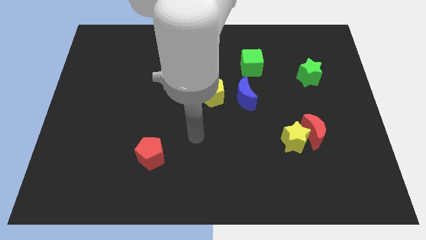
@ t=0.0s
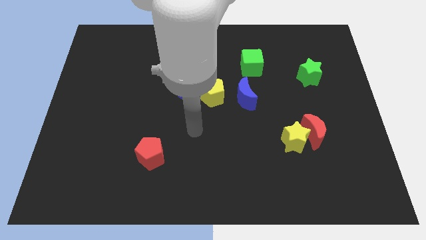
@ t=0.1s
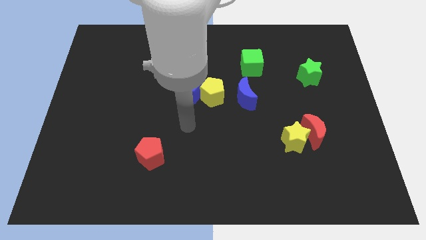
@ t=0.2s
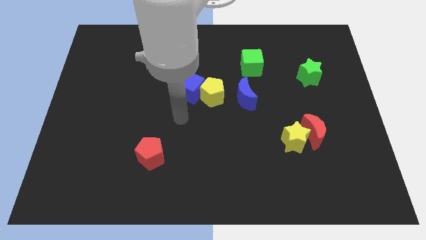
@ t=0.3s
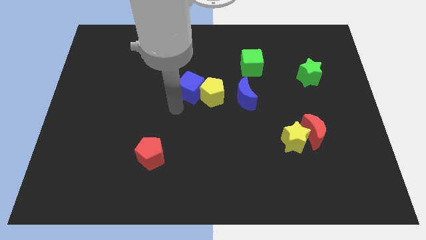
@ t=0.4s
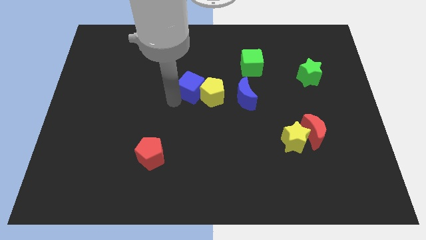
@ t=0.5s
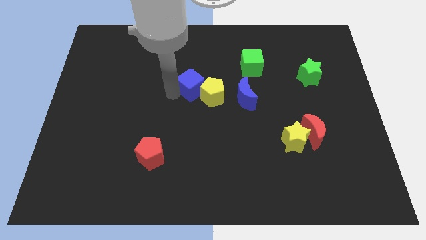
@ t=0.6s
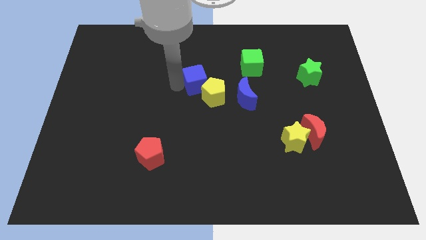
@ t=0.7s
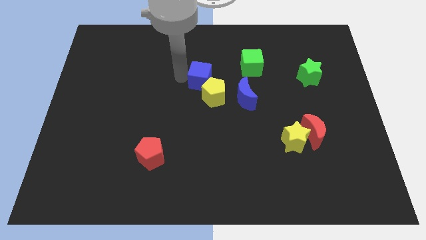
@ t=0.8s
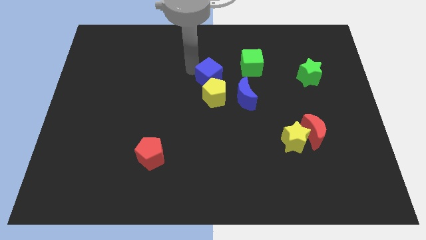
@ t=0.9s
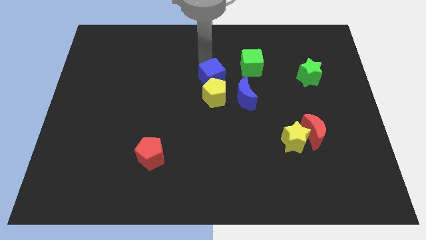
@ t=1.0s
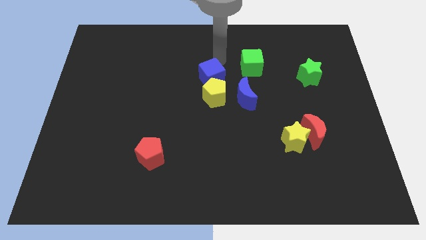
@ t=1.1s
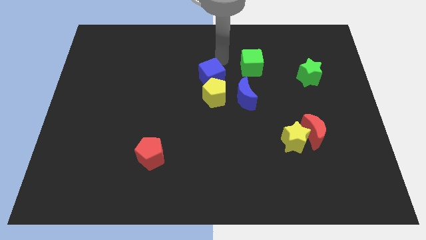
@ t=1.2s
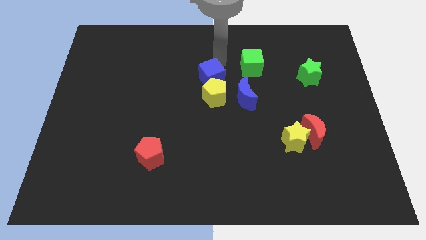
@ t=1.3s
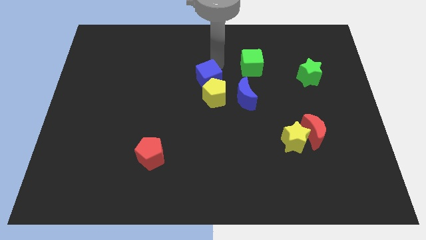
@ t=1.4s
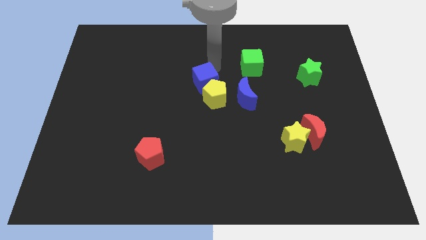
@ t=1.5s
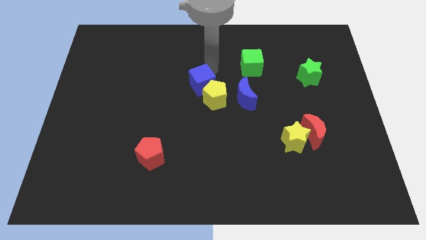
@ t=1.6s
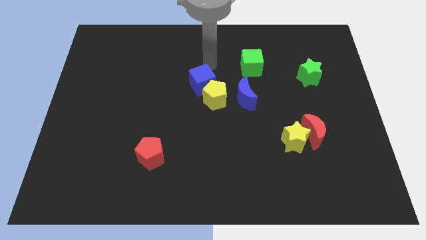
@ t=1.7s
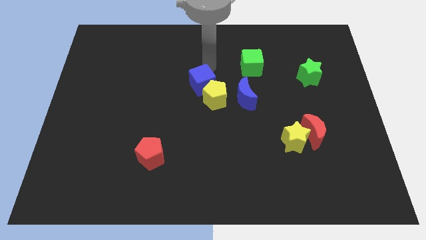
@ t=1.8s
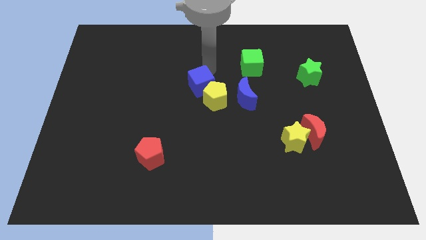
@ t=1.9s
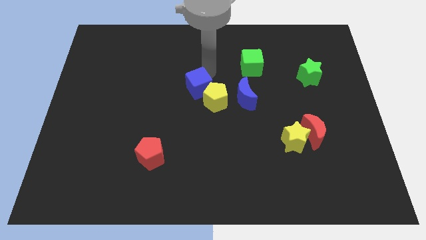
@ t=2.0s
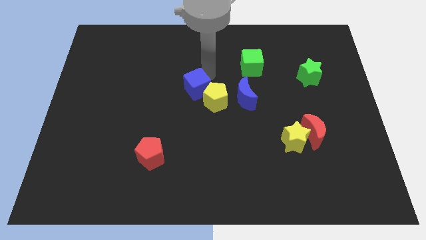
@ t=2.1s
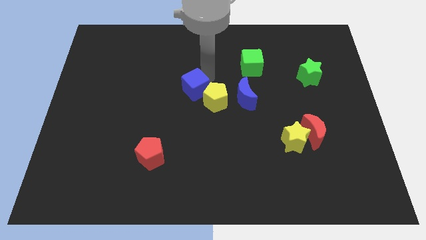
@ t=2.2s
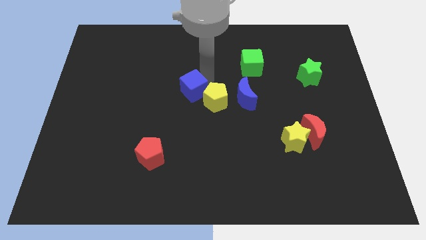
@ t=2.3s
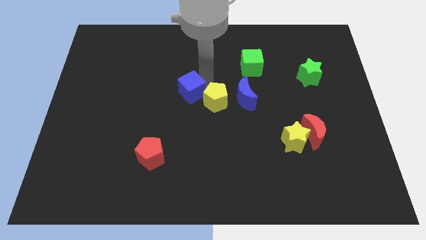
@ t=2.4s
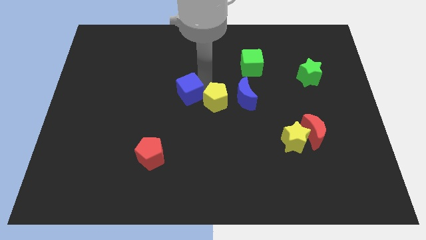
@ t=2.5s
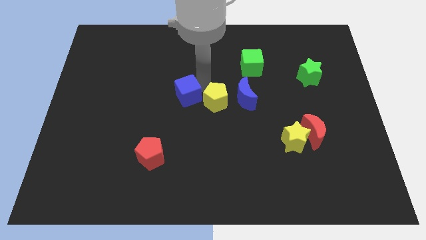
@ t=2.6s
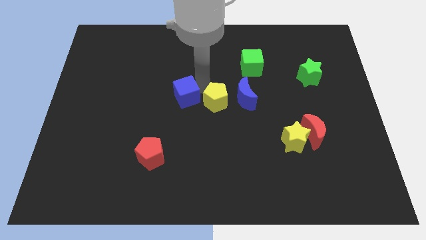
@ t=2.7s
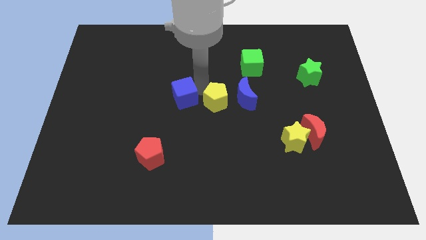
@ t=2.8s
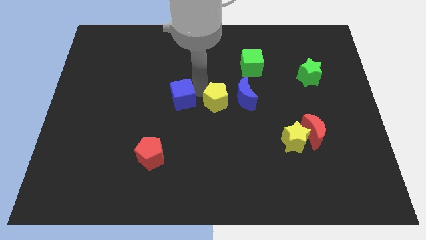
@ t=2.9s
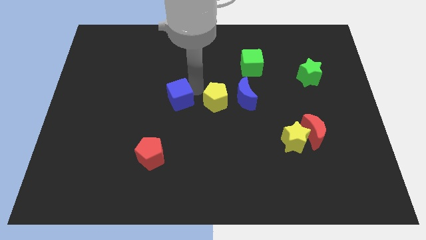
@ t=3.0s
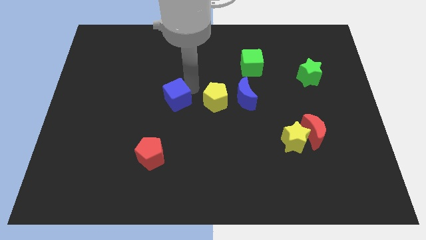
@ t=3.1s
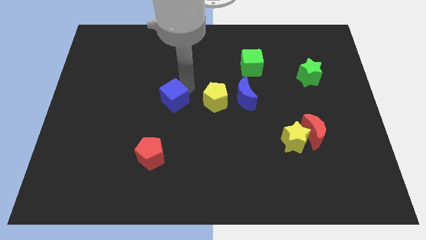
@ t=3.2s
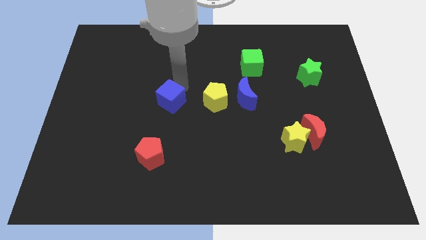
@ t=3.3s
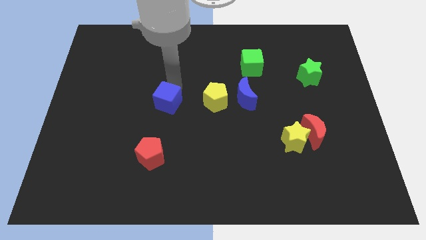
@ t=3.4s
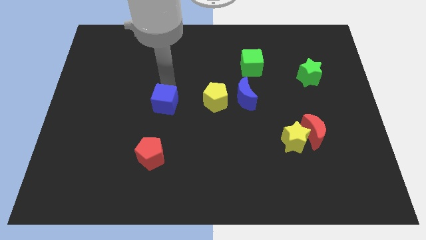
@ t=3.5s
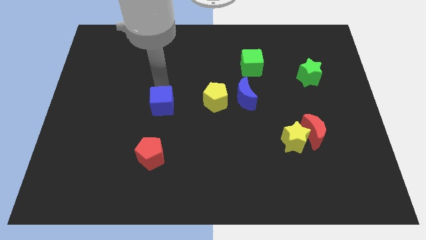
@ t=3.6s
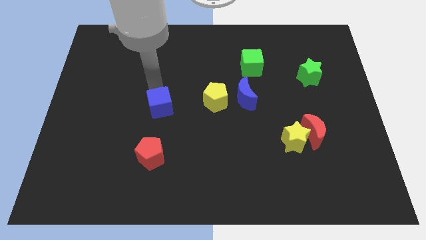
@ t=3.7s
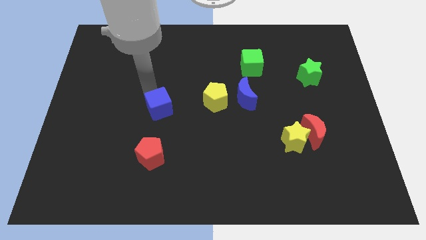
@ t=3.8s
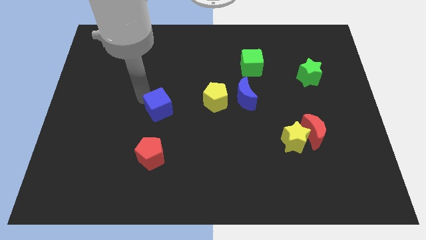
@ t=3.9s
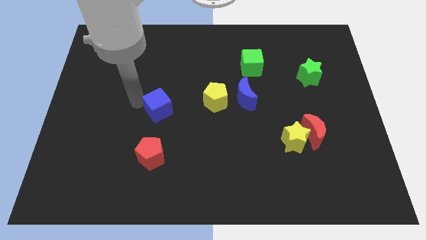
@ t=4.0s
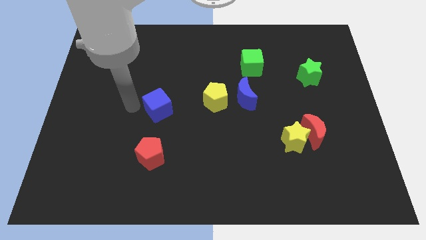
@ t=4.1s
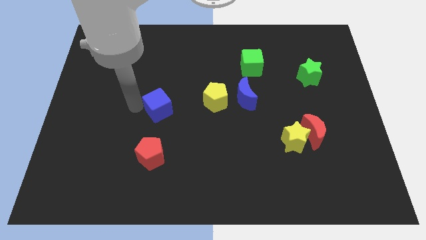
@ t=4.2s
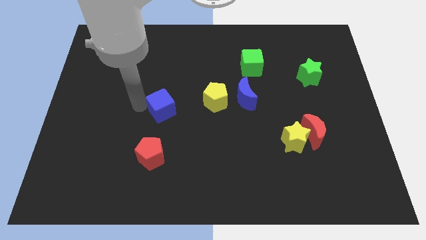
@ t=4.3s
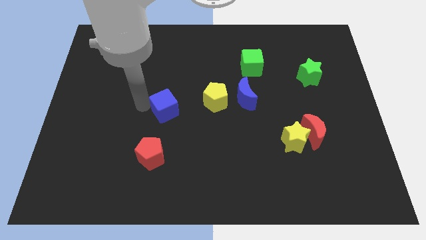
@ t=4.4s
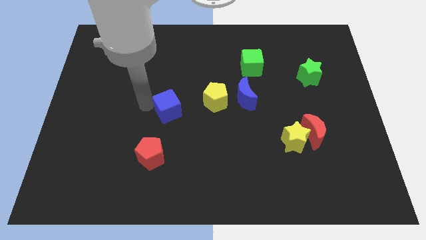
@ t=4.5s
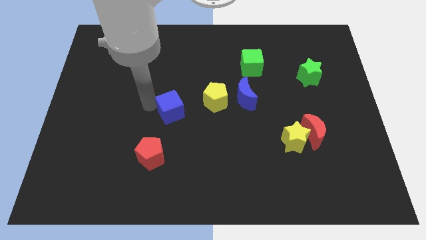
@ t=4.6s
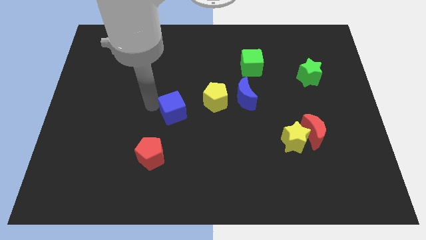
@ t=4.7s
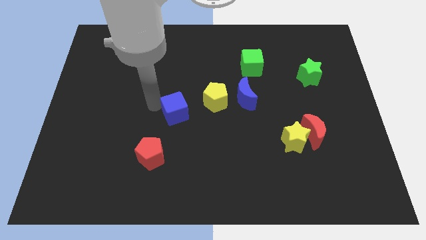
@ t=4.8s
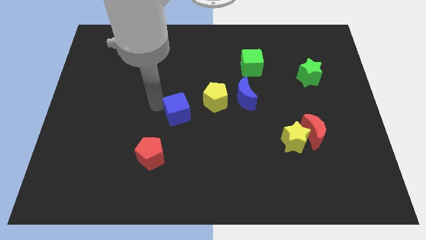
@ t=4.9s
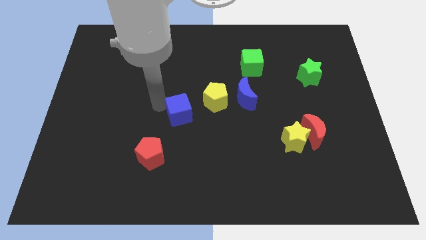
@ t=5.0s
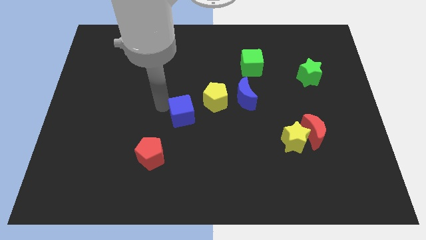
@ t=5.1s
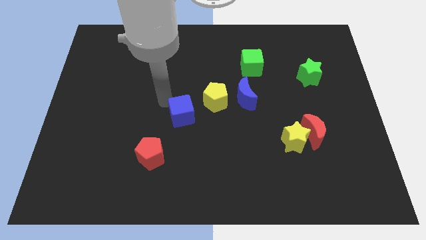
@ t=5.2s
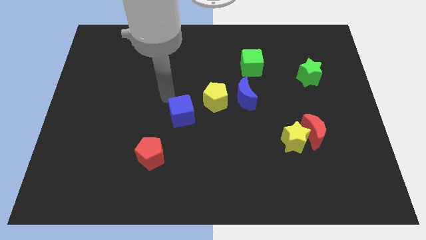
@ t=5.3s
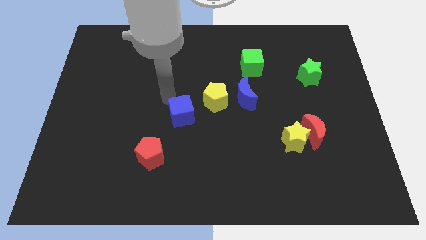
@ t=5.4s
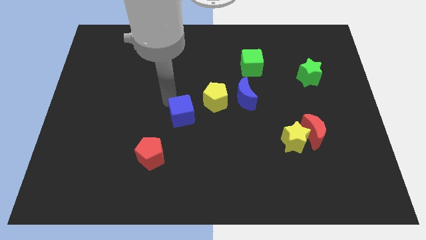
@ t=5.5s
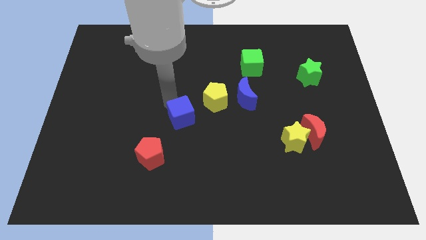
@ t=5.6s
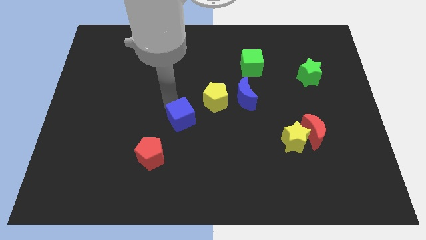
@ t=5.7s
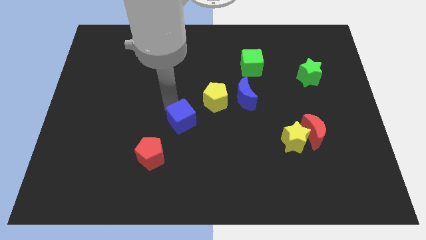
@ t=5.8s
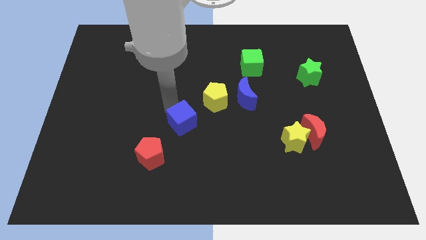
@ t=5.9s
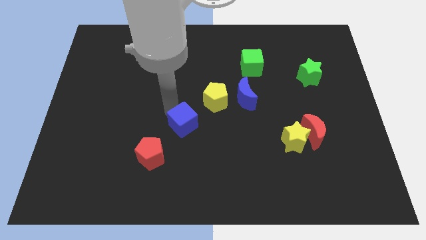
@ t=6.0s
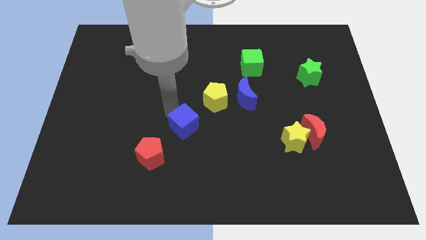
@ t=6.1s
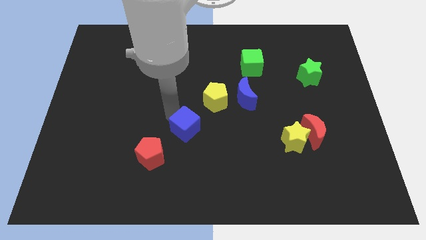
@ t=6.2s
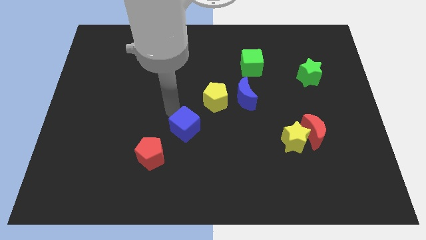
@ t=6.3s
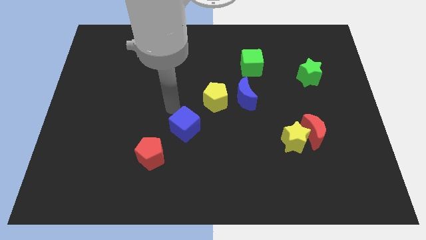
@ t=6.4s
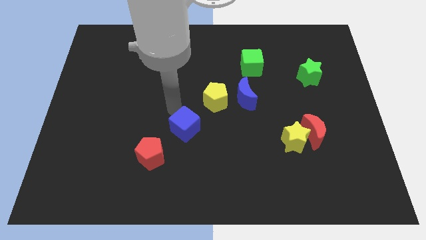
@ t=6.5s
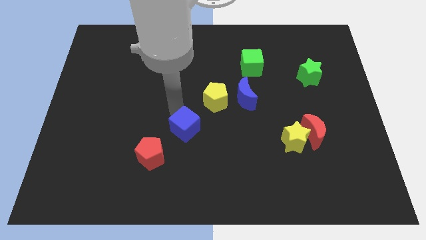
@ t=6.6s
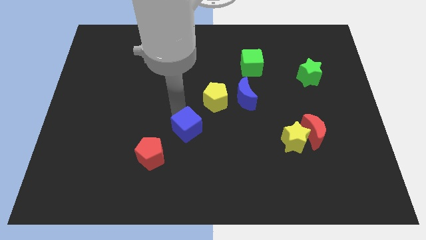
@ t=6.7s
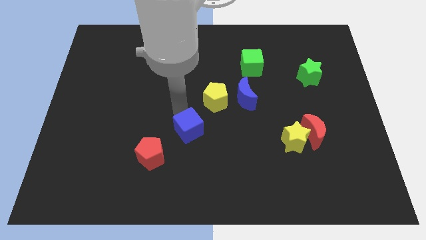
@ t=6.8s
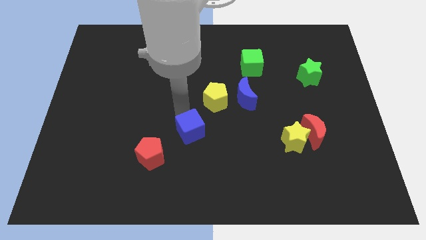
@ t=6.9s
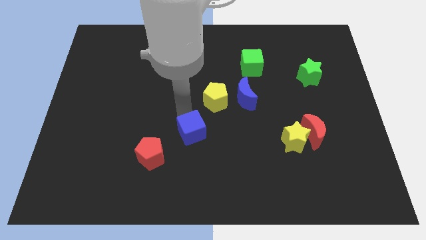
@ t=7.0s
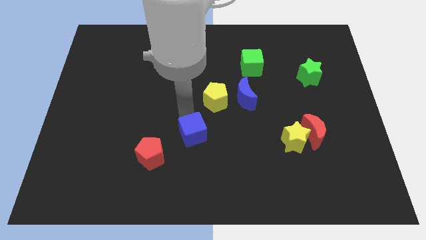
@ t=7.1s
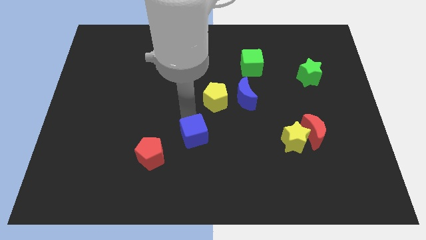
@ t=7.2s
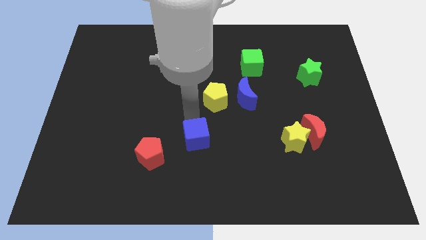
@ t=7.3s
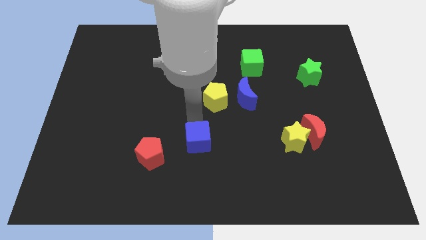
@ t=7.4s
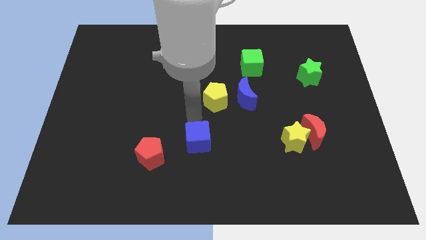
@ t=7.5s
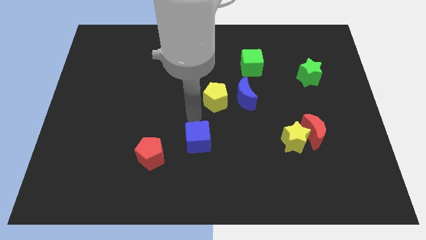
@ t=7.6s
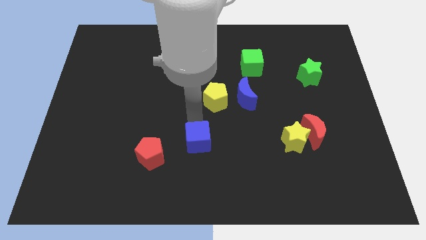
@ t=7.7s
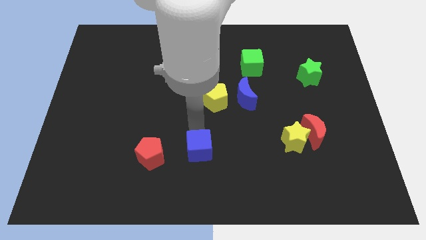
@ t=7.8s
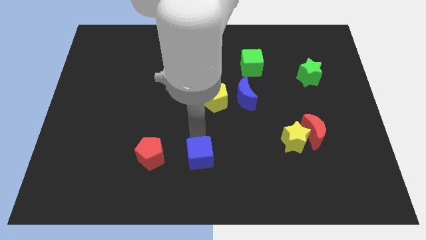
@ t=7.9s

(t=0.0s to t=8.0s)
put the blue cube to the bottom side
